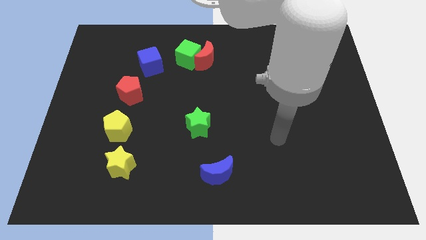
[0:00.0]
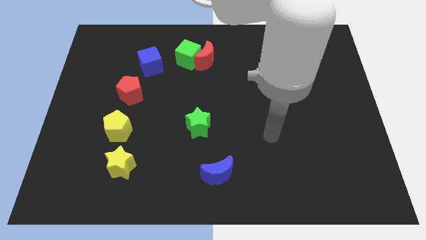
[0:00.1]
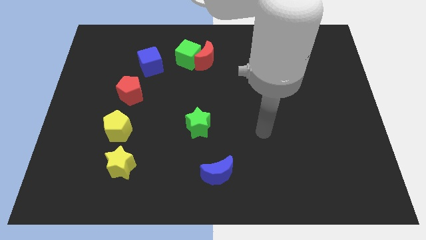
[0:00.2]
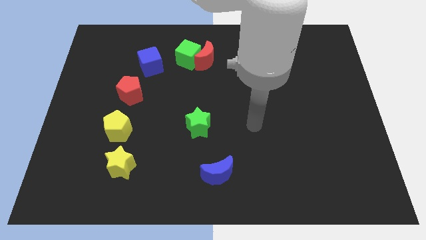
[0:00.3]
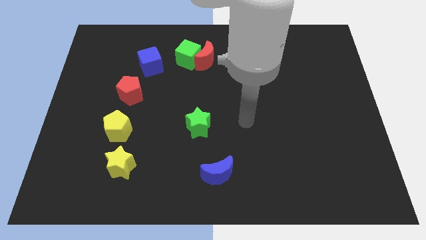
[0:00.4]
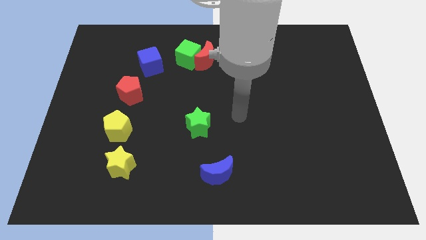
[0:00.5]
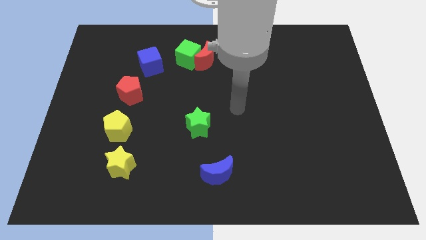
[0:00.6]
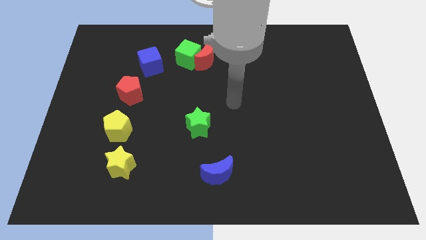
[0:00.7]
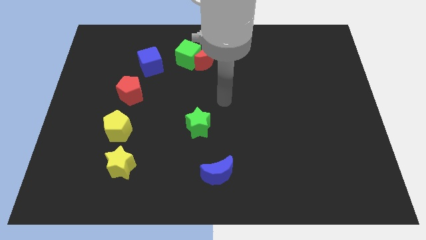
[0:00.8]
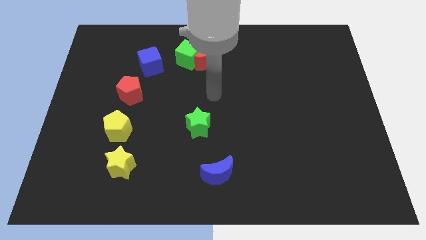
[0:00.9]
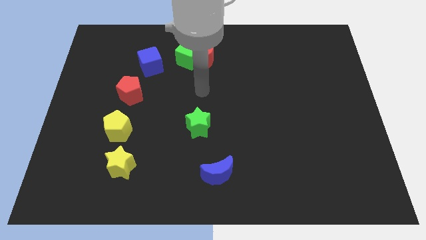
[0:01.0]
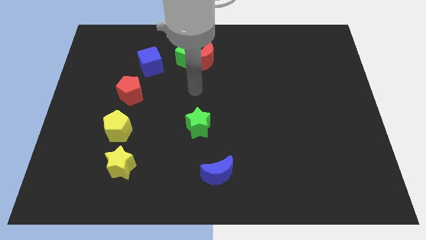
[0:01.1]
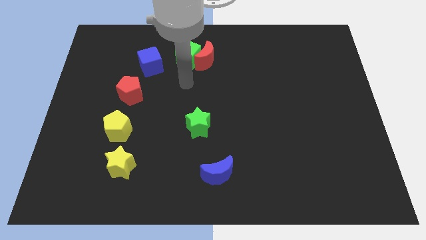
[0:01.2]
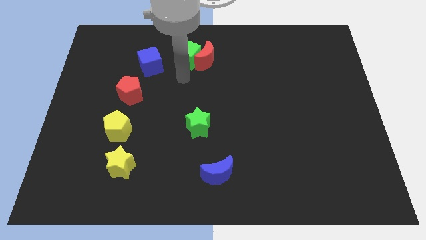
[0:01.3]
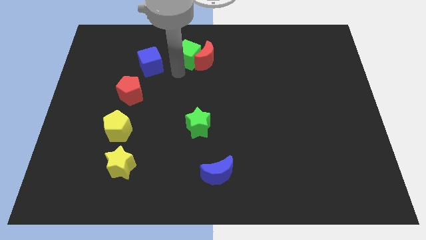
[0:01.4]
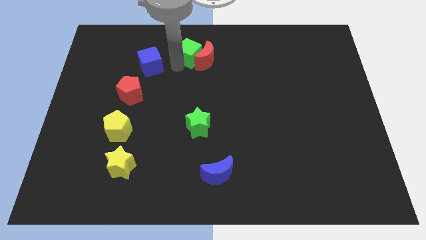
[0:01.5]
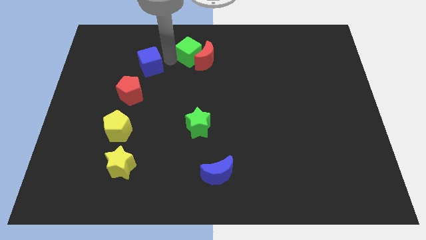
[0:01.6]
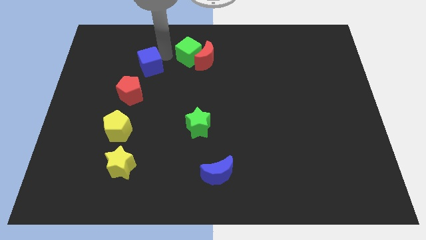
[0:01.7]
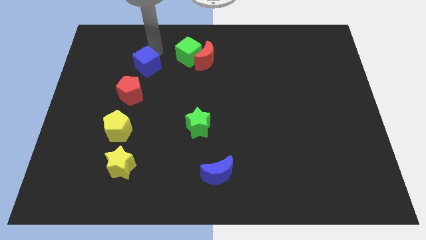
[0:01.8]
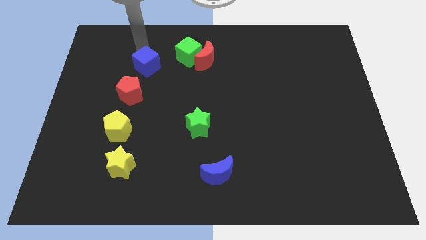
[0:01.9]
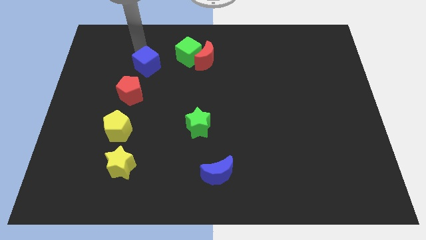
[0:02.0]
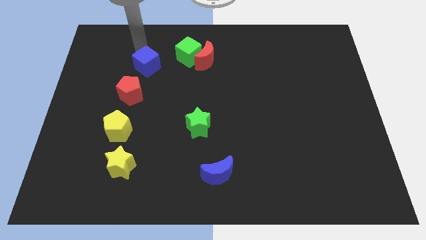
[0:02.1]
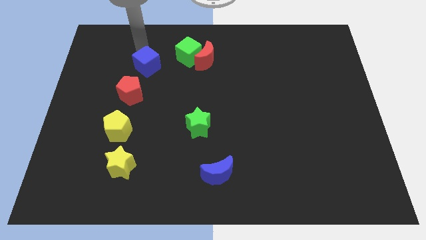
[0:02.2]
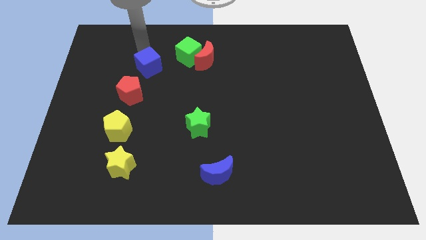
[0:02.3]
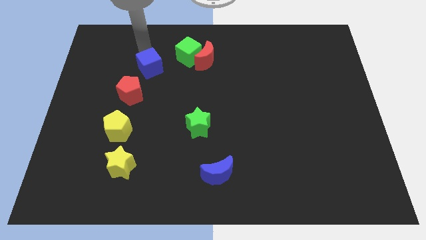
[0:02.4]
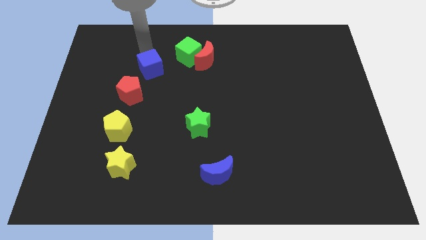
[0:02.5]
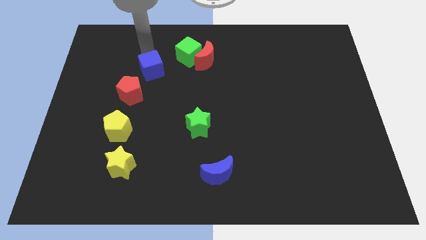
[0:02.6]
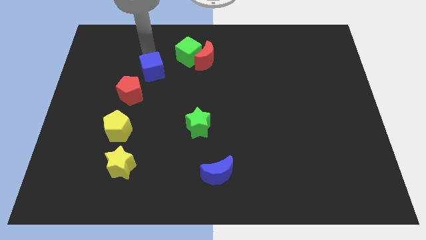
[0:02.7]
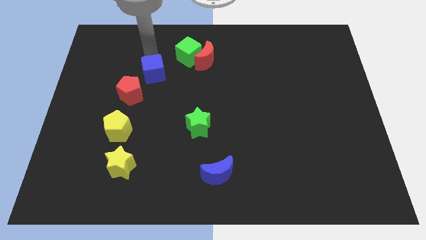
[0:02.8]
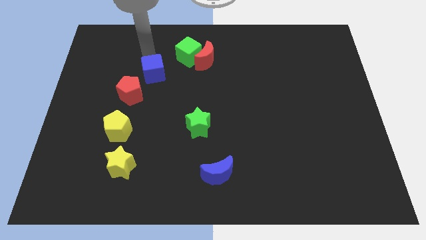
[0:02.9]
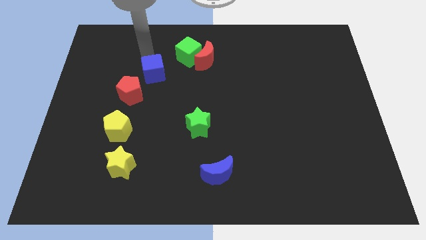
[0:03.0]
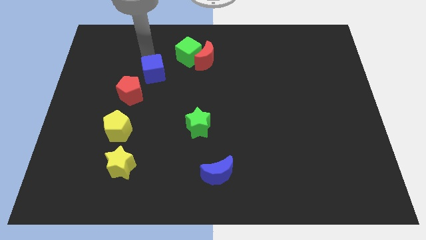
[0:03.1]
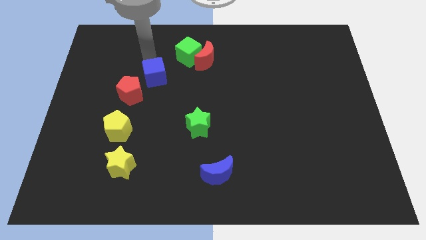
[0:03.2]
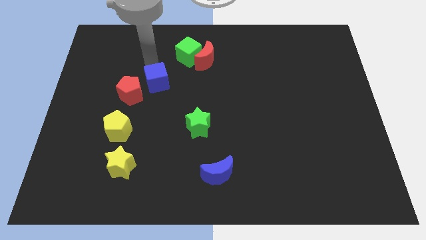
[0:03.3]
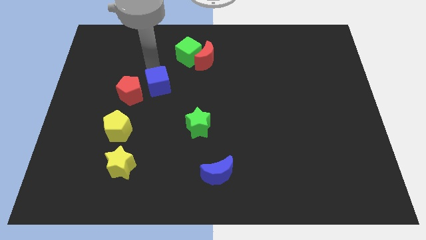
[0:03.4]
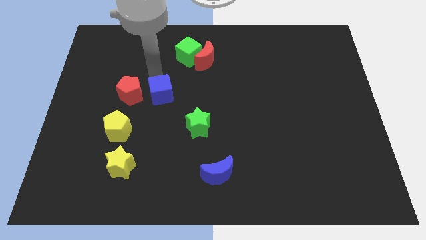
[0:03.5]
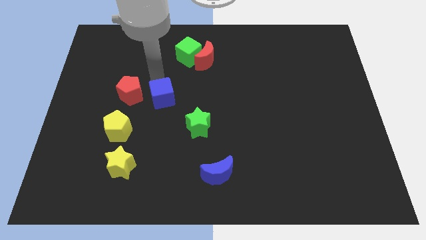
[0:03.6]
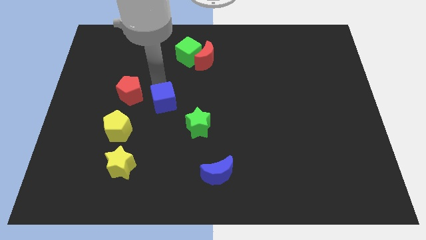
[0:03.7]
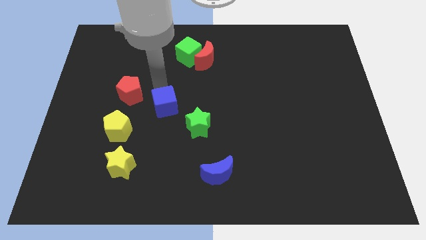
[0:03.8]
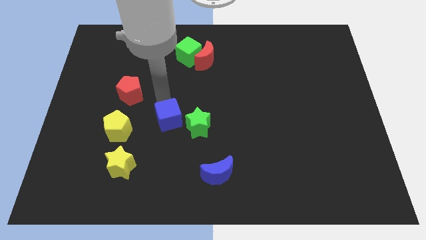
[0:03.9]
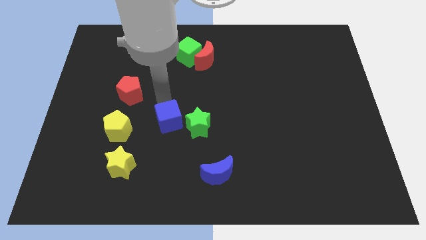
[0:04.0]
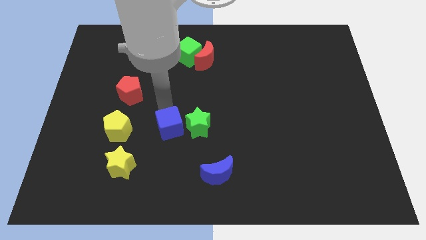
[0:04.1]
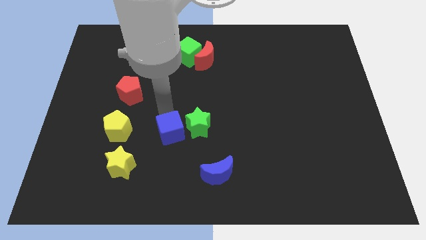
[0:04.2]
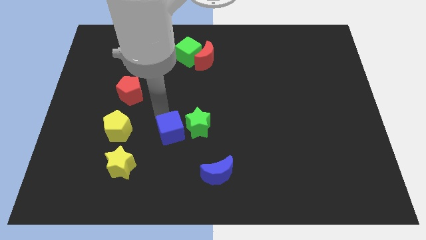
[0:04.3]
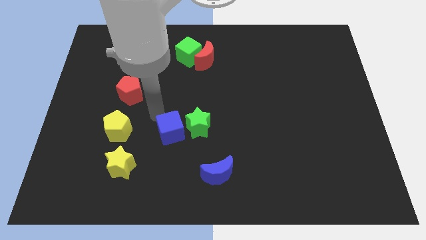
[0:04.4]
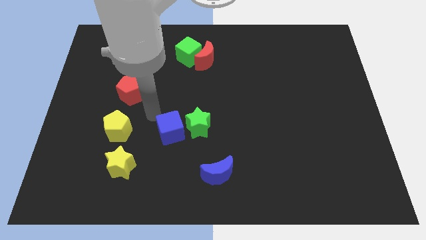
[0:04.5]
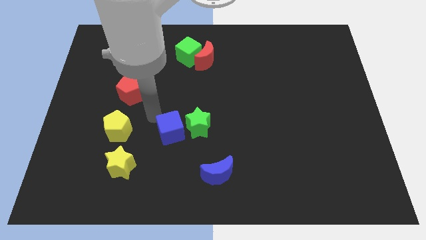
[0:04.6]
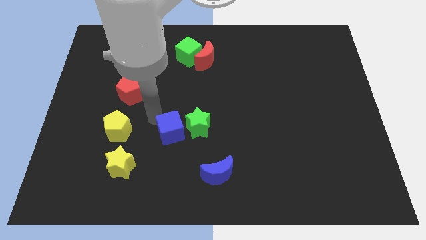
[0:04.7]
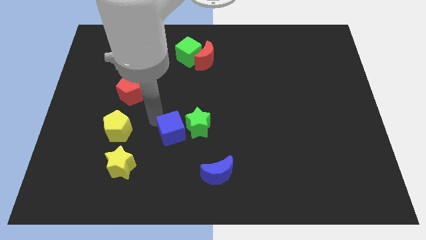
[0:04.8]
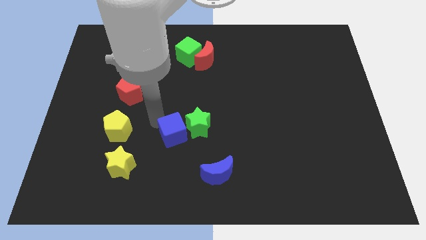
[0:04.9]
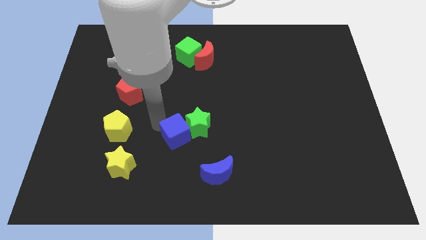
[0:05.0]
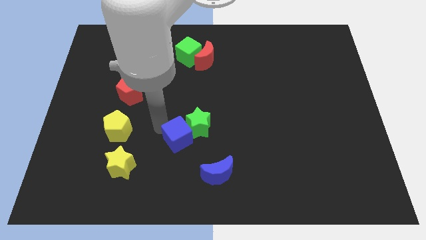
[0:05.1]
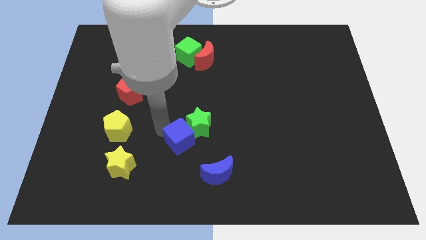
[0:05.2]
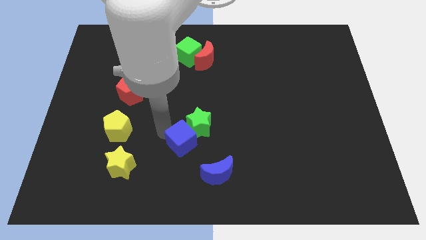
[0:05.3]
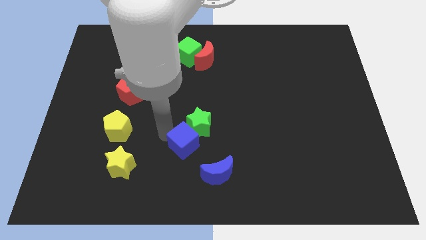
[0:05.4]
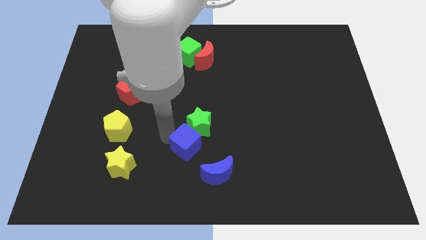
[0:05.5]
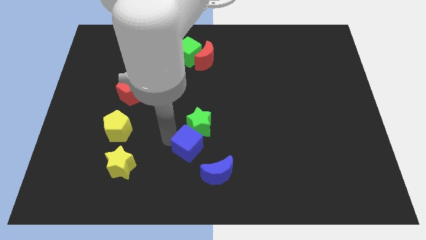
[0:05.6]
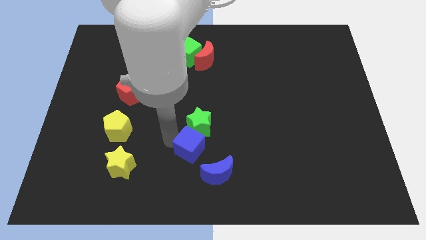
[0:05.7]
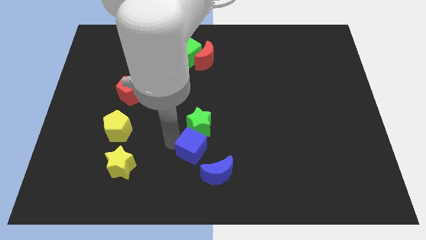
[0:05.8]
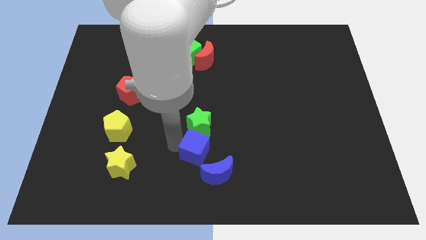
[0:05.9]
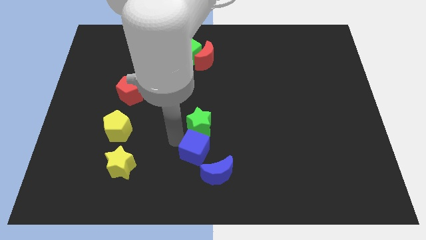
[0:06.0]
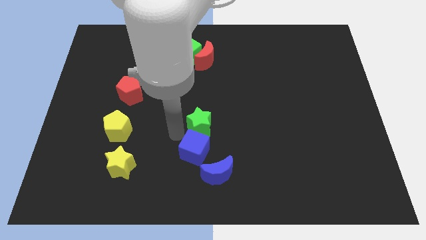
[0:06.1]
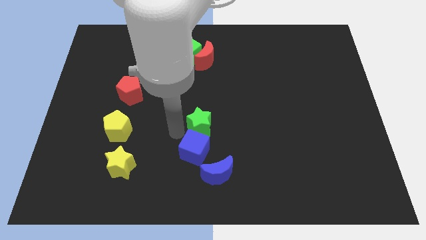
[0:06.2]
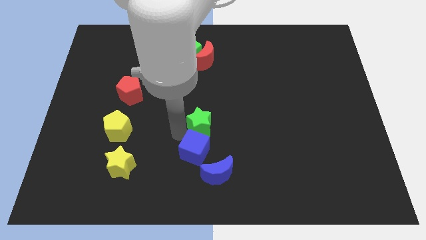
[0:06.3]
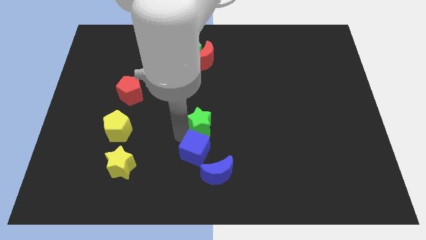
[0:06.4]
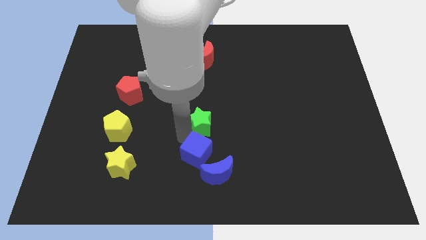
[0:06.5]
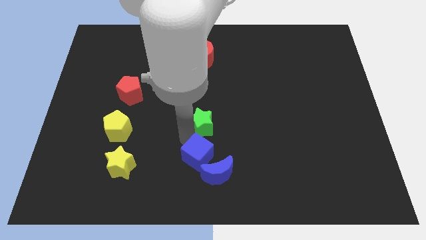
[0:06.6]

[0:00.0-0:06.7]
put the blue cube close to the blue moon
